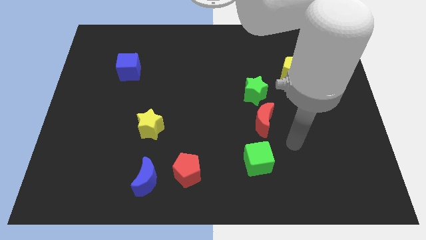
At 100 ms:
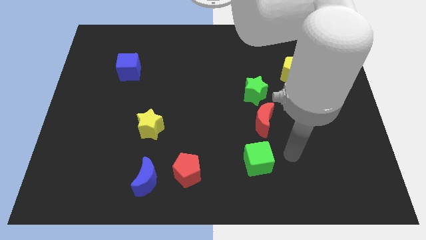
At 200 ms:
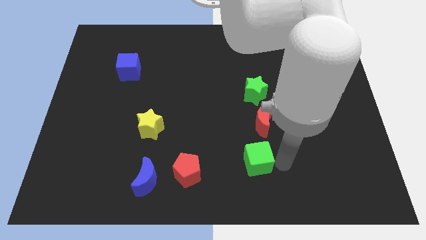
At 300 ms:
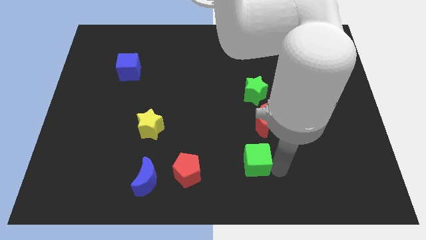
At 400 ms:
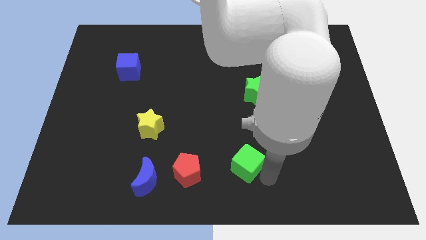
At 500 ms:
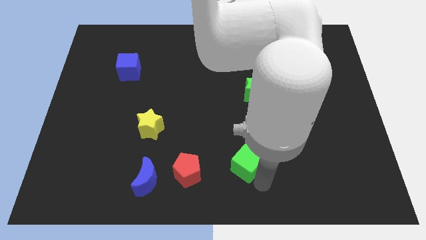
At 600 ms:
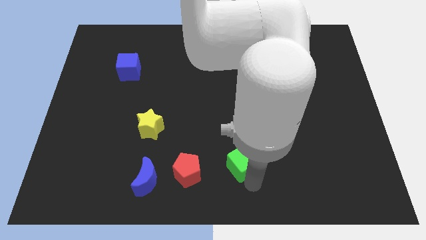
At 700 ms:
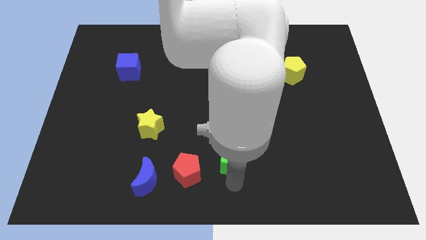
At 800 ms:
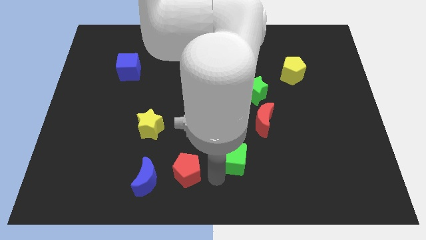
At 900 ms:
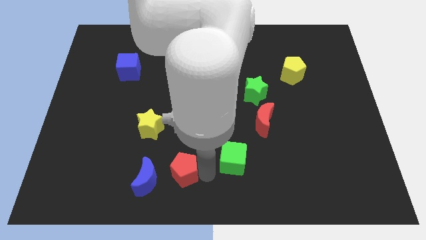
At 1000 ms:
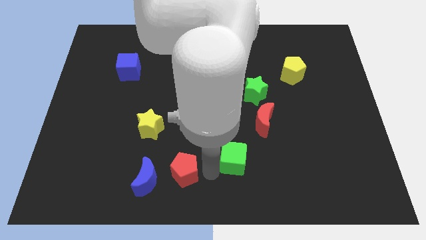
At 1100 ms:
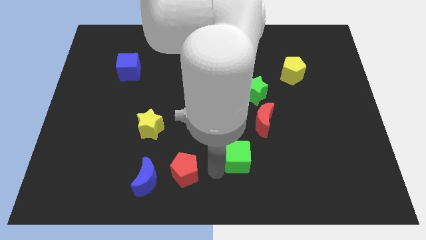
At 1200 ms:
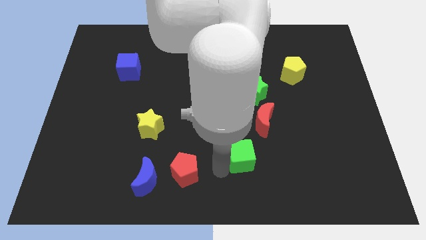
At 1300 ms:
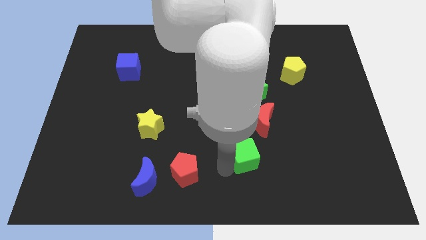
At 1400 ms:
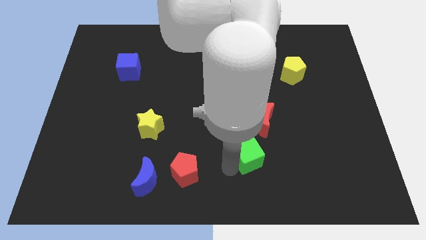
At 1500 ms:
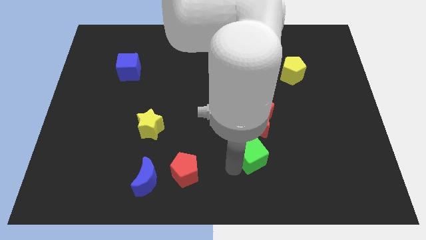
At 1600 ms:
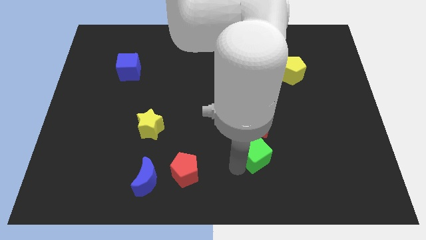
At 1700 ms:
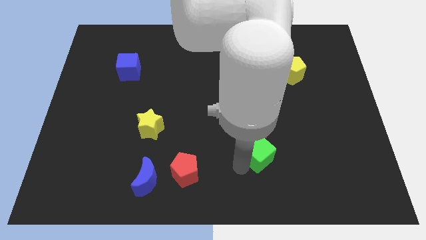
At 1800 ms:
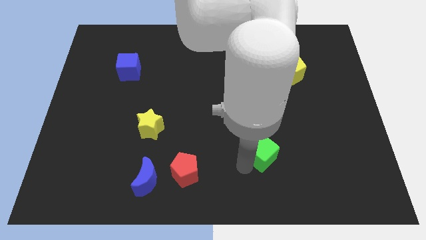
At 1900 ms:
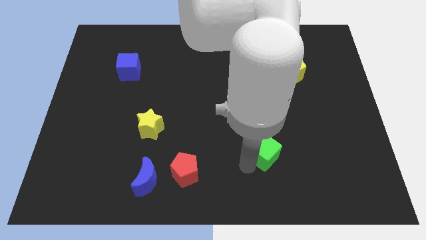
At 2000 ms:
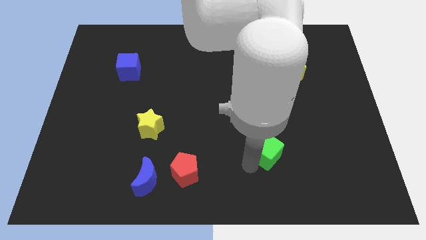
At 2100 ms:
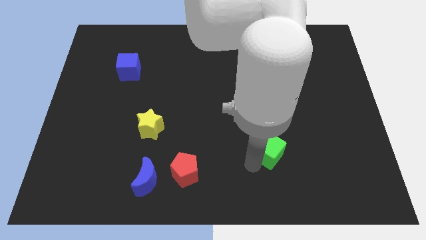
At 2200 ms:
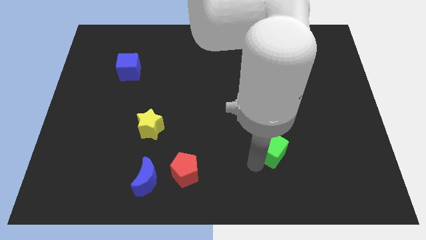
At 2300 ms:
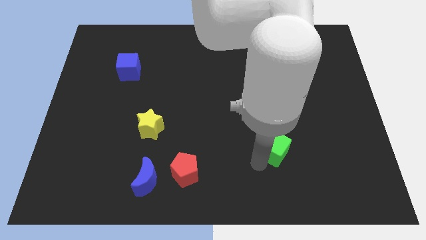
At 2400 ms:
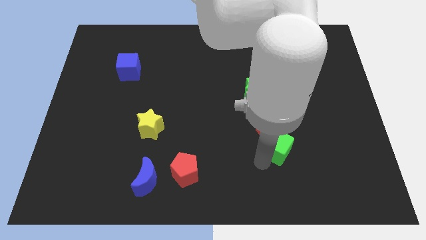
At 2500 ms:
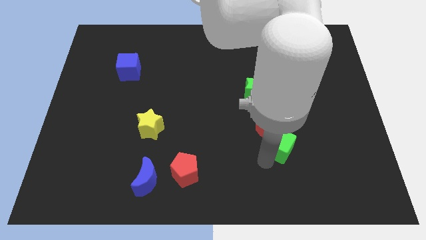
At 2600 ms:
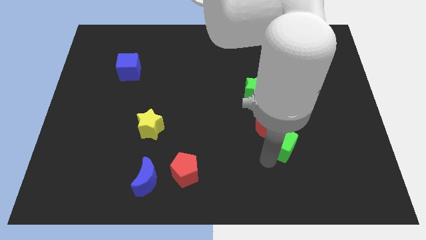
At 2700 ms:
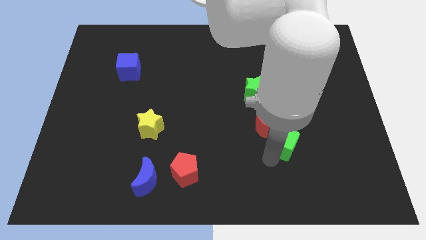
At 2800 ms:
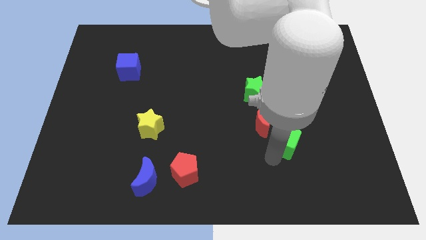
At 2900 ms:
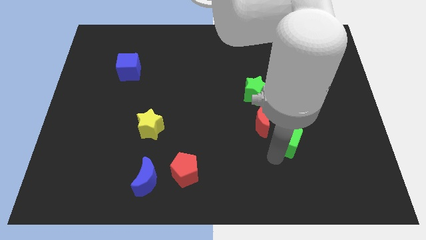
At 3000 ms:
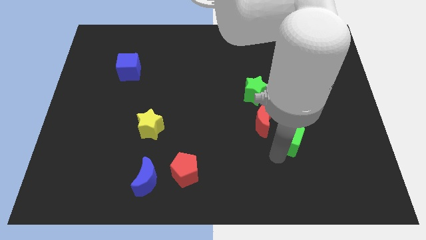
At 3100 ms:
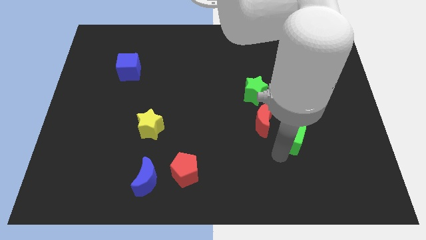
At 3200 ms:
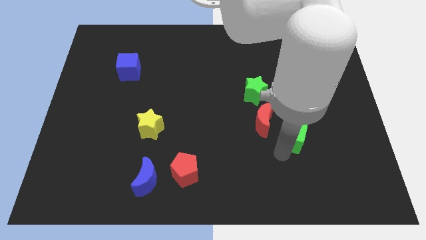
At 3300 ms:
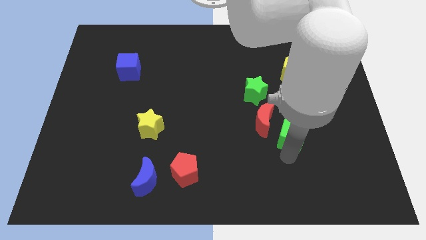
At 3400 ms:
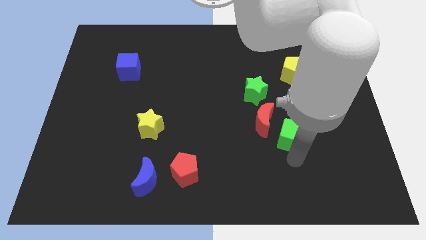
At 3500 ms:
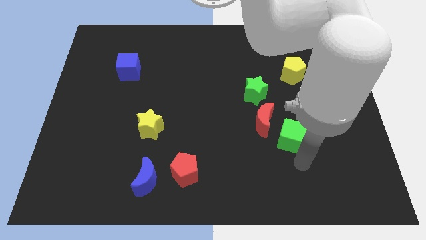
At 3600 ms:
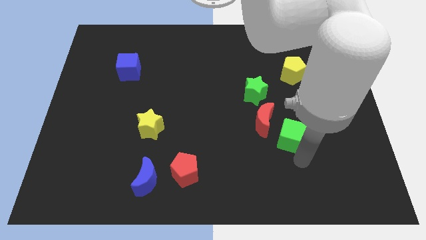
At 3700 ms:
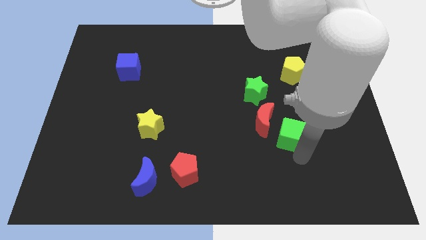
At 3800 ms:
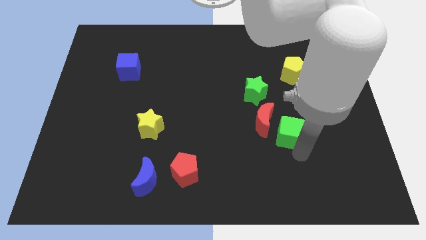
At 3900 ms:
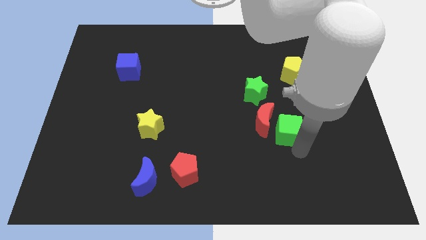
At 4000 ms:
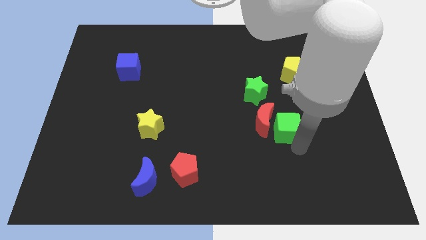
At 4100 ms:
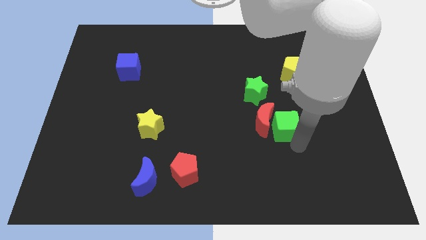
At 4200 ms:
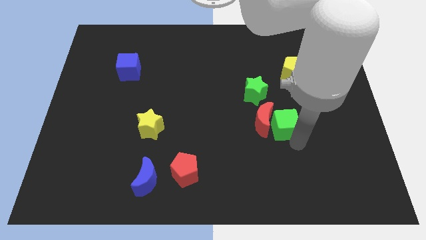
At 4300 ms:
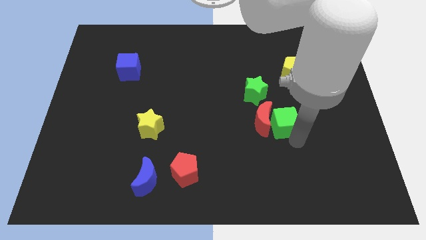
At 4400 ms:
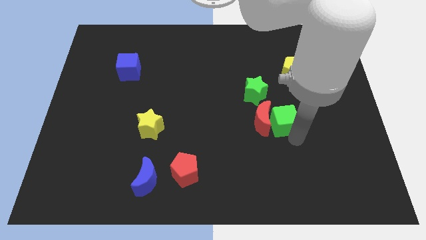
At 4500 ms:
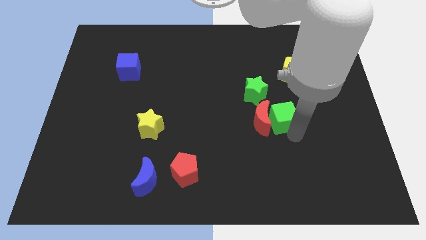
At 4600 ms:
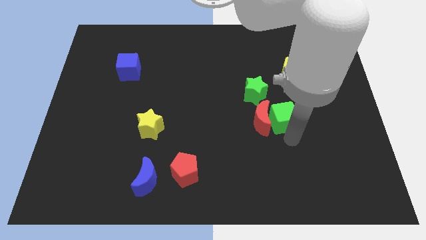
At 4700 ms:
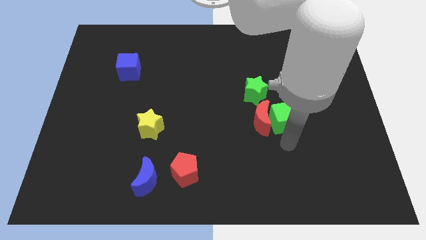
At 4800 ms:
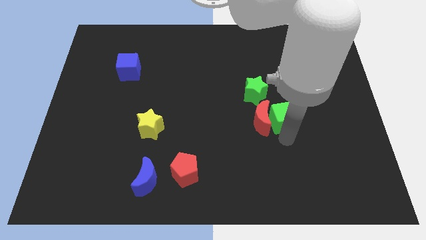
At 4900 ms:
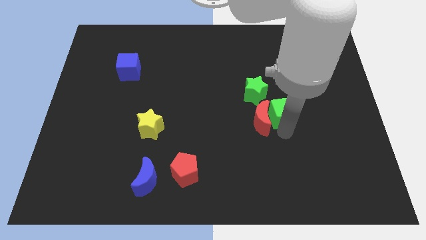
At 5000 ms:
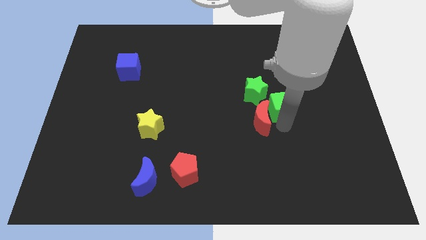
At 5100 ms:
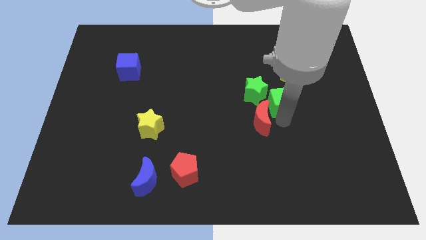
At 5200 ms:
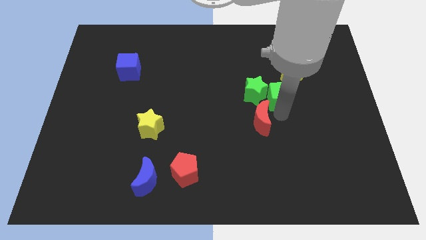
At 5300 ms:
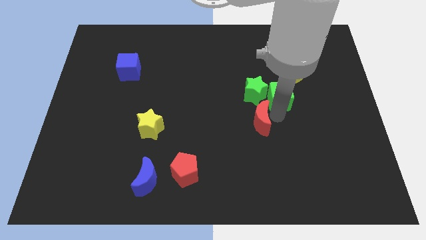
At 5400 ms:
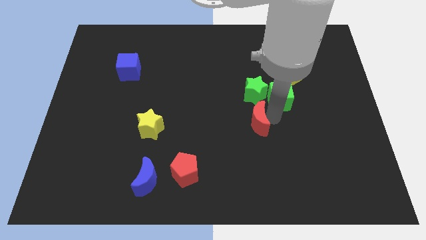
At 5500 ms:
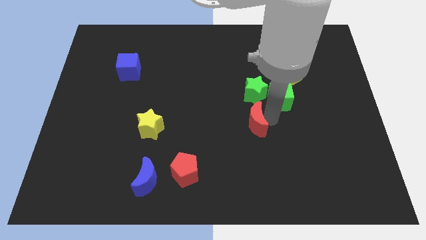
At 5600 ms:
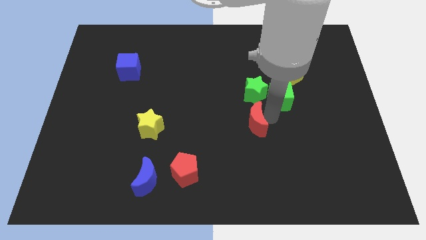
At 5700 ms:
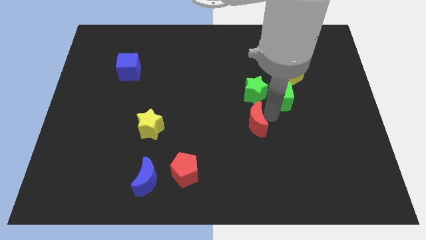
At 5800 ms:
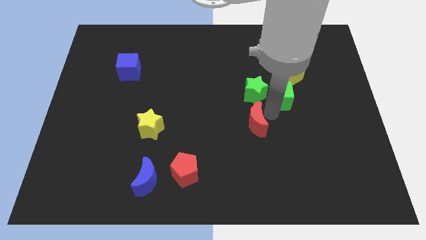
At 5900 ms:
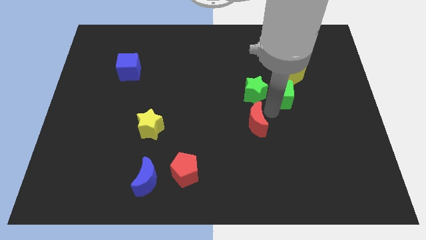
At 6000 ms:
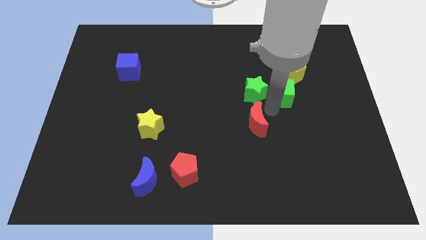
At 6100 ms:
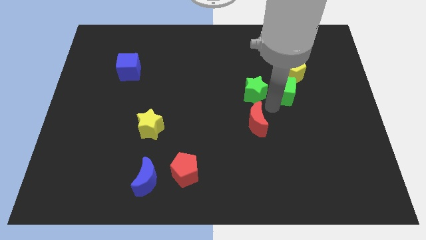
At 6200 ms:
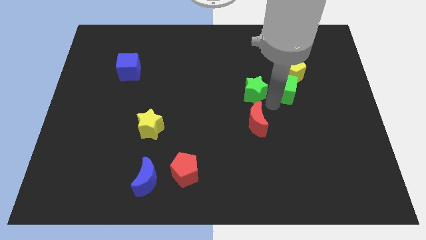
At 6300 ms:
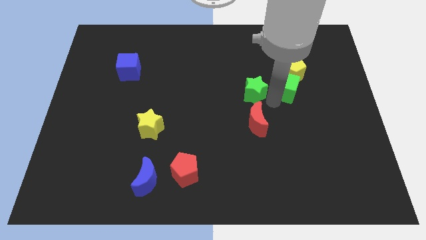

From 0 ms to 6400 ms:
push the green cube next to the yellow pentagon

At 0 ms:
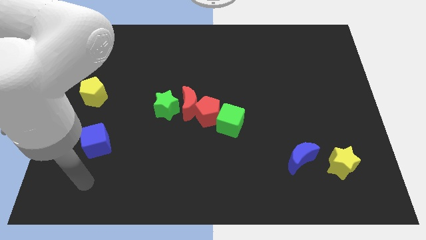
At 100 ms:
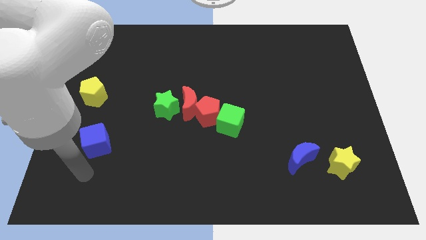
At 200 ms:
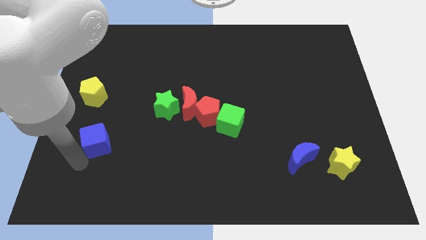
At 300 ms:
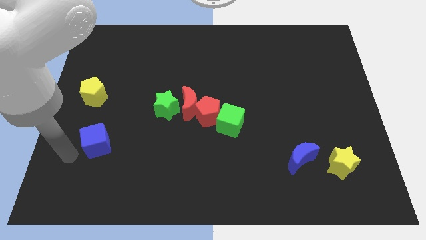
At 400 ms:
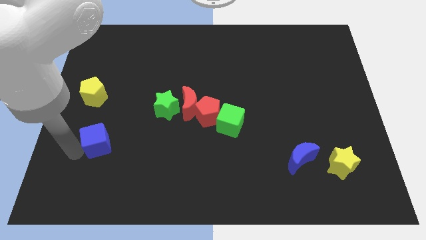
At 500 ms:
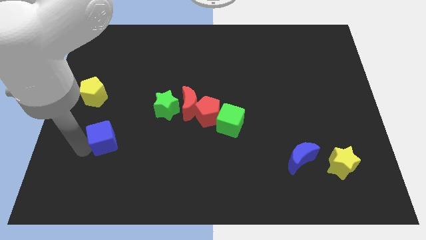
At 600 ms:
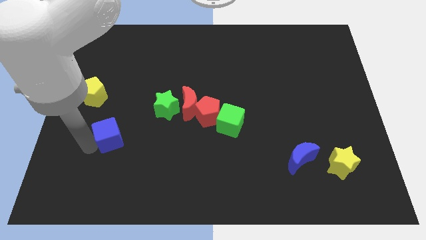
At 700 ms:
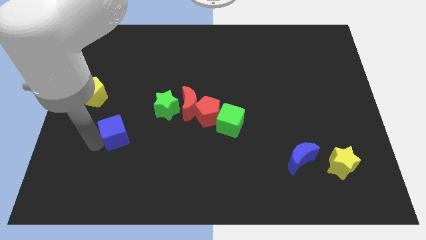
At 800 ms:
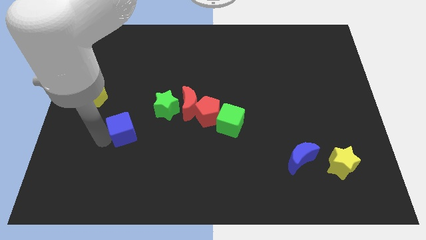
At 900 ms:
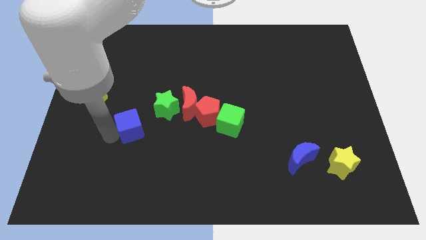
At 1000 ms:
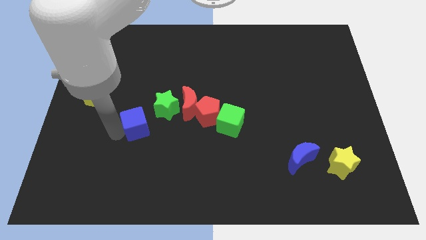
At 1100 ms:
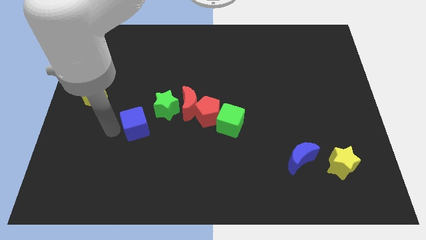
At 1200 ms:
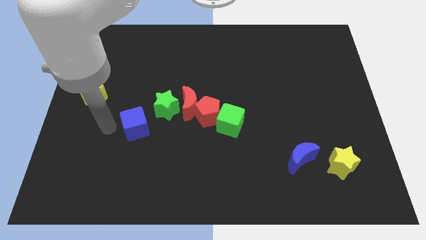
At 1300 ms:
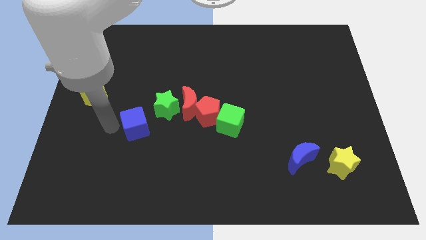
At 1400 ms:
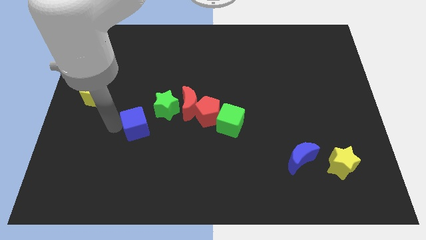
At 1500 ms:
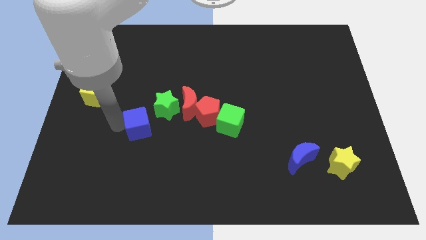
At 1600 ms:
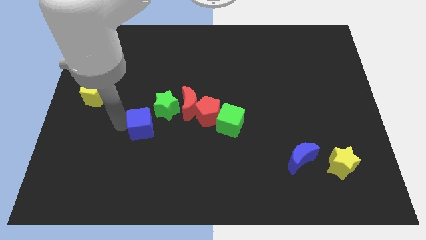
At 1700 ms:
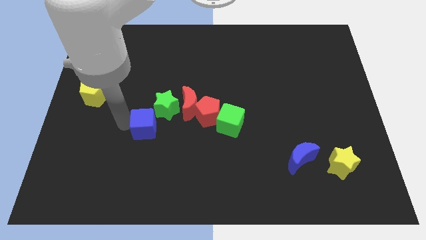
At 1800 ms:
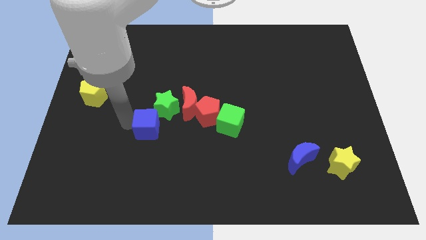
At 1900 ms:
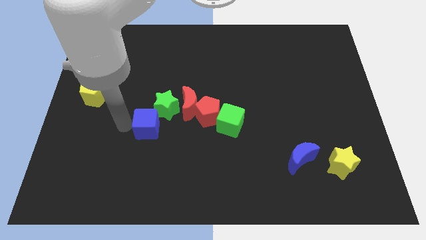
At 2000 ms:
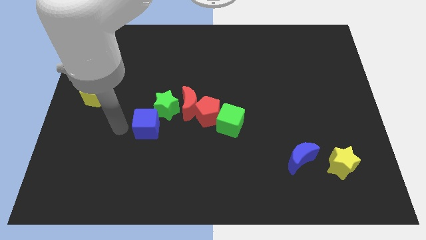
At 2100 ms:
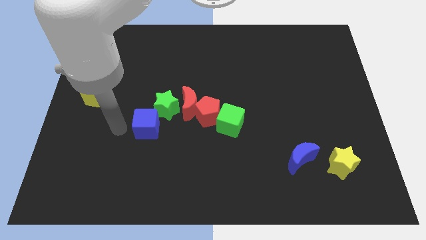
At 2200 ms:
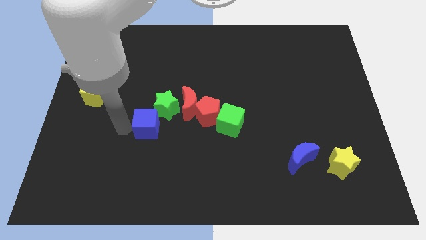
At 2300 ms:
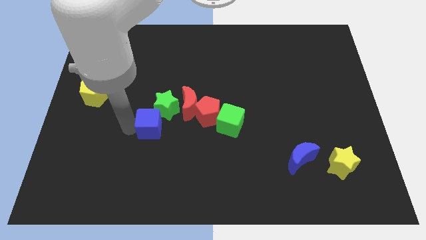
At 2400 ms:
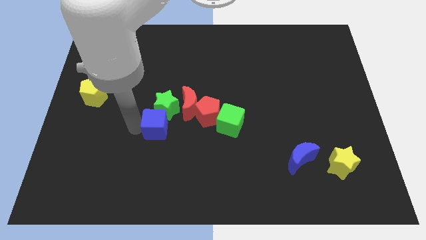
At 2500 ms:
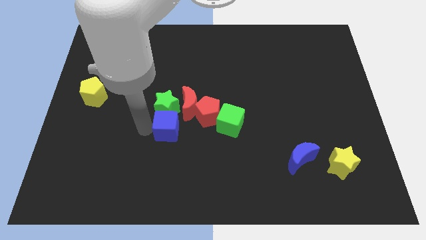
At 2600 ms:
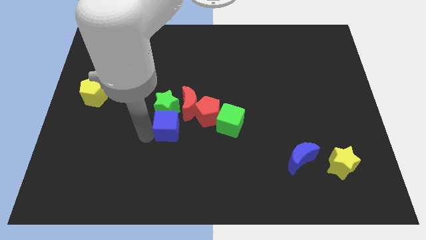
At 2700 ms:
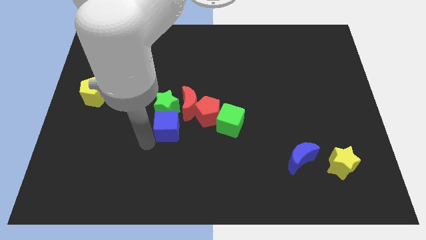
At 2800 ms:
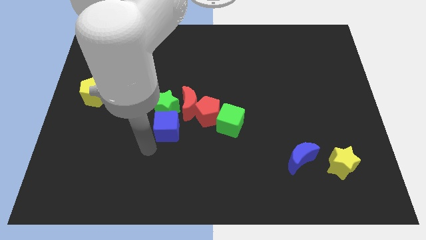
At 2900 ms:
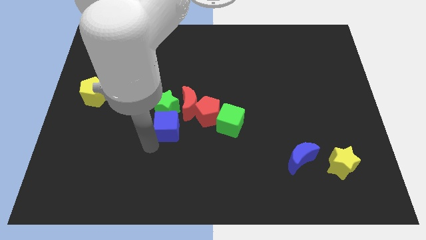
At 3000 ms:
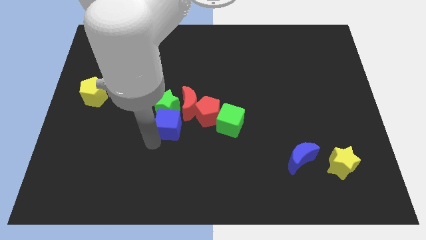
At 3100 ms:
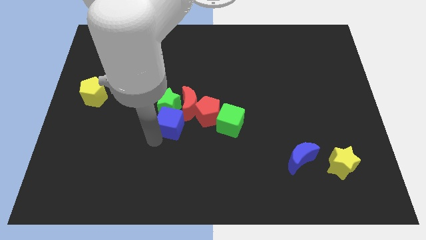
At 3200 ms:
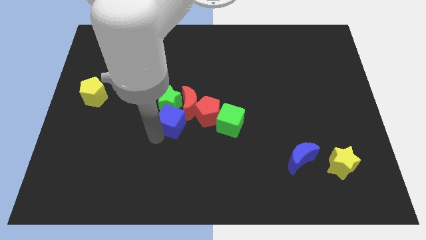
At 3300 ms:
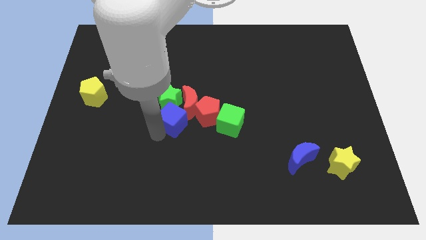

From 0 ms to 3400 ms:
move the blue cube to the red moon
